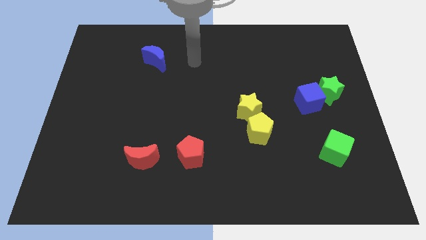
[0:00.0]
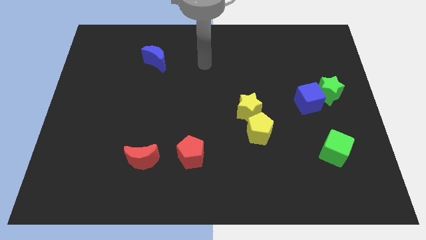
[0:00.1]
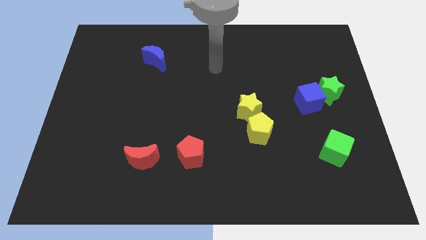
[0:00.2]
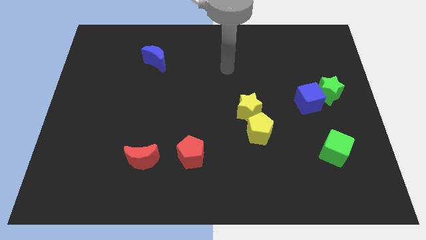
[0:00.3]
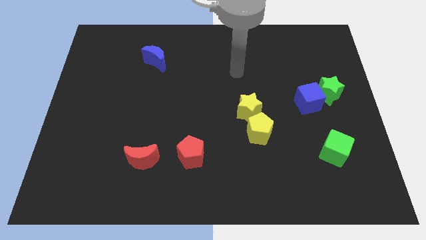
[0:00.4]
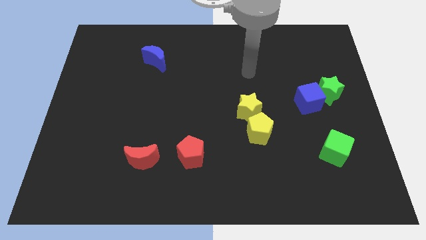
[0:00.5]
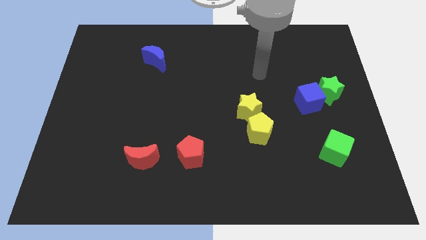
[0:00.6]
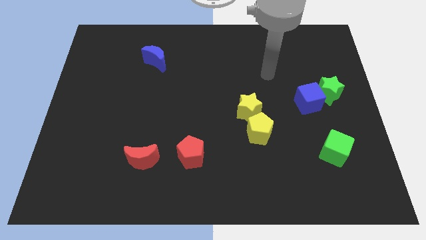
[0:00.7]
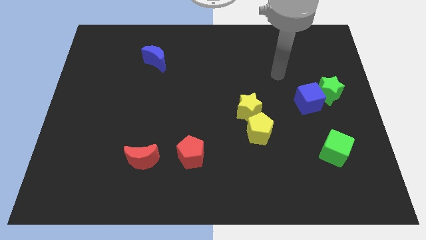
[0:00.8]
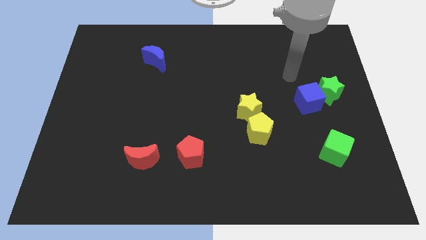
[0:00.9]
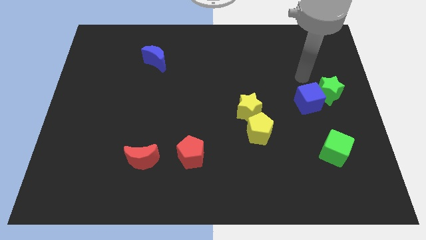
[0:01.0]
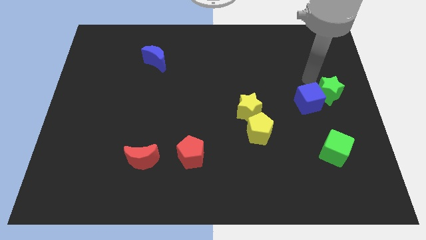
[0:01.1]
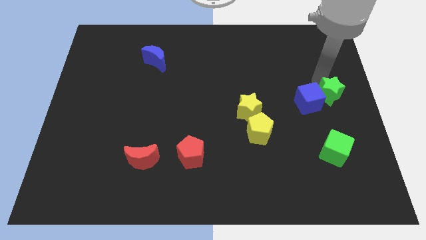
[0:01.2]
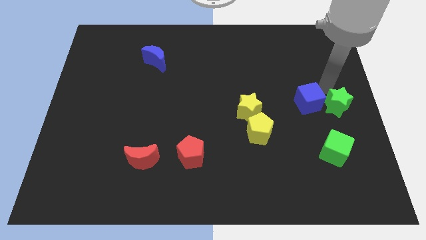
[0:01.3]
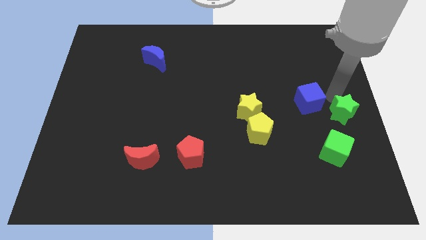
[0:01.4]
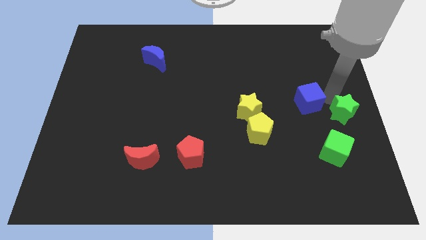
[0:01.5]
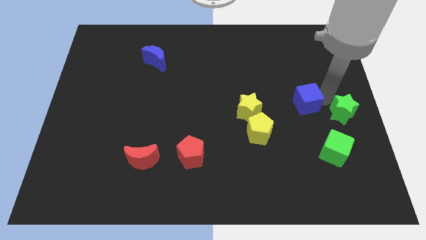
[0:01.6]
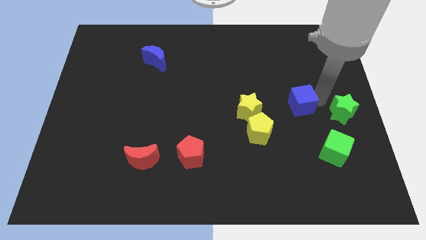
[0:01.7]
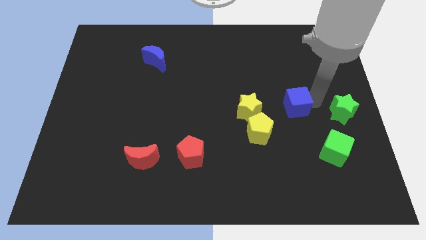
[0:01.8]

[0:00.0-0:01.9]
move the blue cube away from the green star

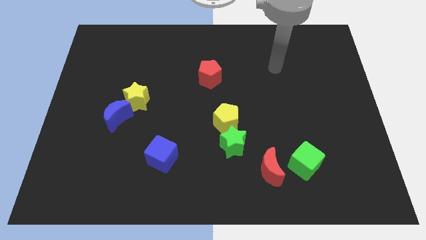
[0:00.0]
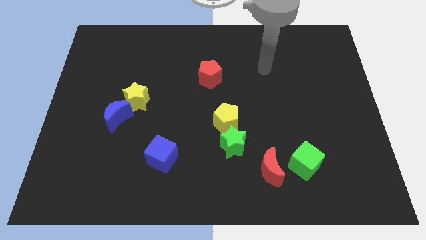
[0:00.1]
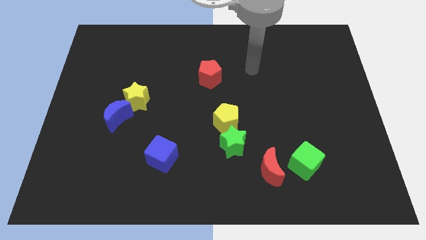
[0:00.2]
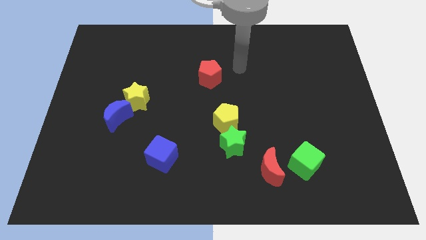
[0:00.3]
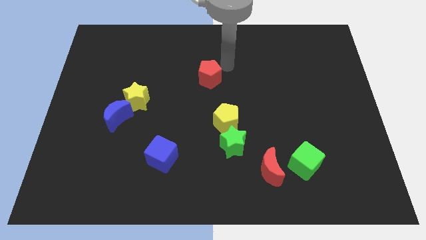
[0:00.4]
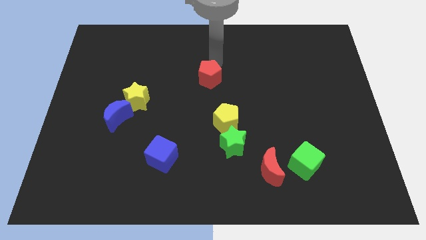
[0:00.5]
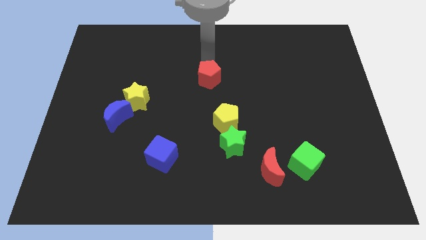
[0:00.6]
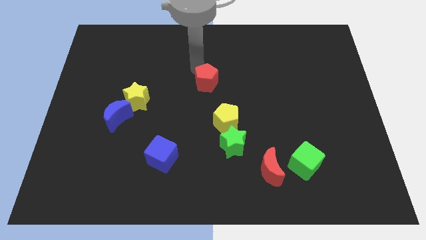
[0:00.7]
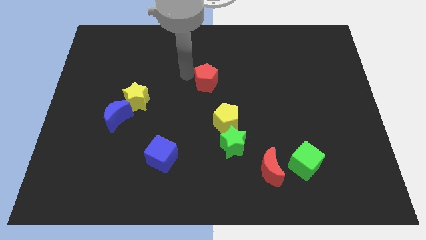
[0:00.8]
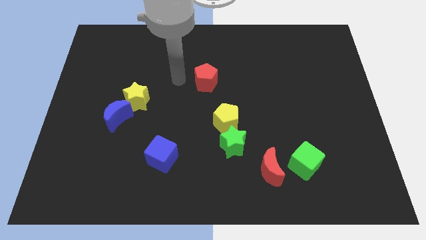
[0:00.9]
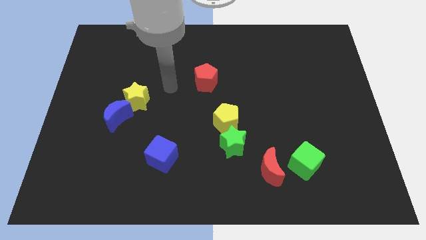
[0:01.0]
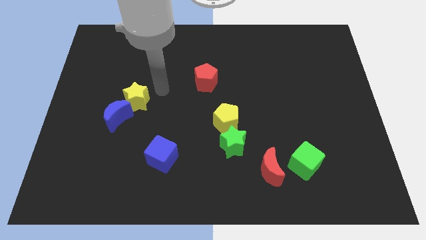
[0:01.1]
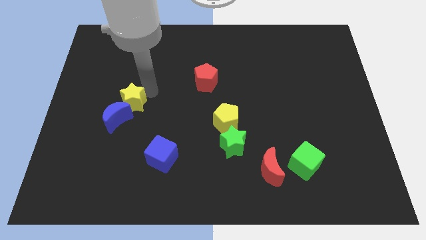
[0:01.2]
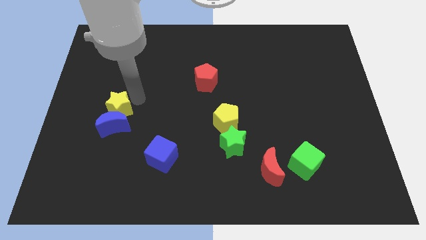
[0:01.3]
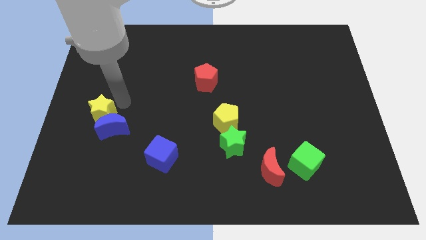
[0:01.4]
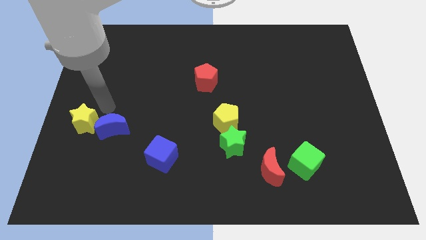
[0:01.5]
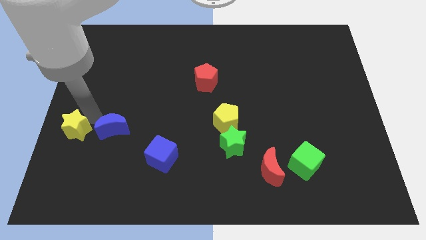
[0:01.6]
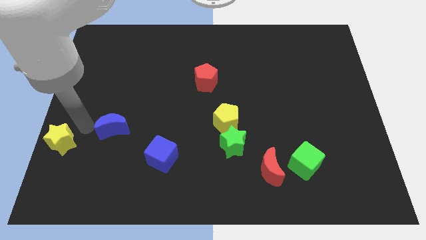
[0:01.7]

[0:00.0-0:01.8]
separate the blue moon from the yellow star

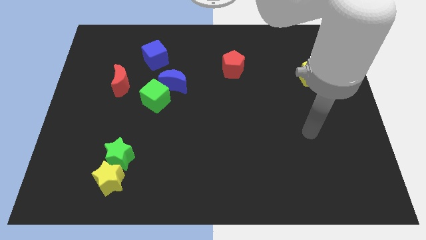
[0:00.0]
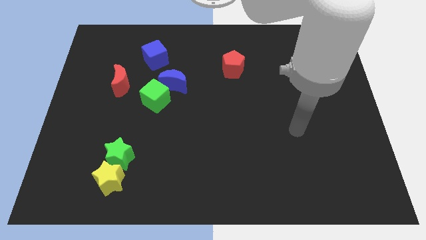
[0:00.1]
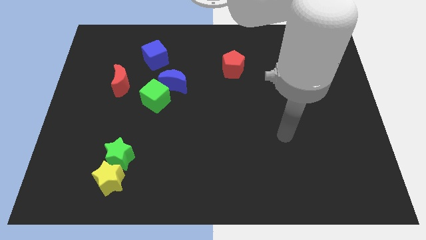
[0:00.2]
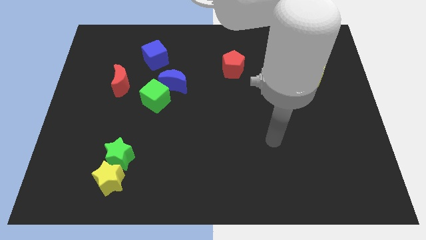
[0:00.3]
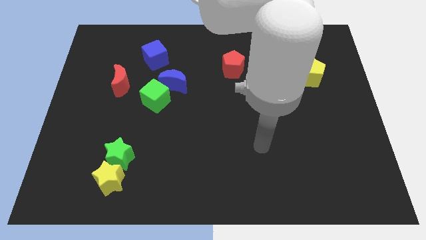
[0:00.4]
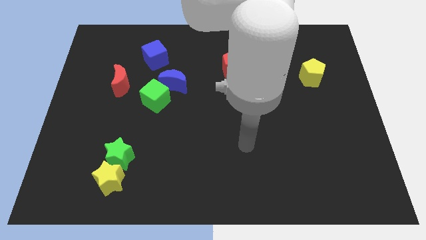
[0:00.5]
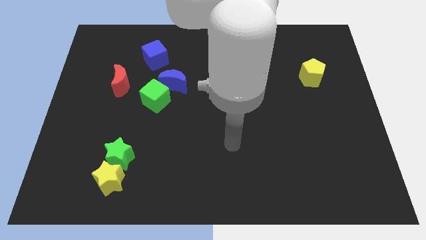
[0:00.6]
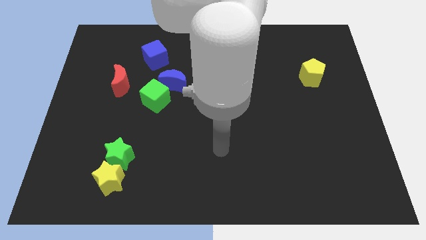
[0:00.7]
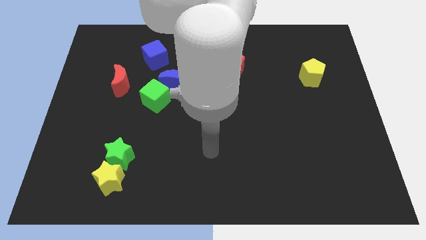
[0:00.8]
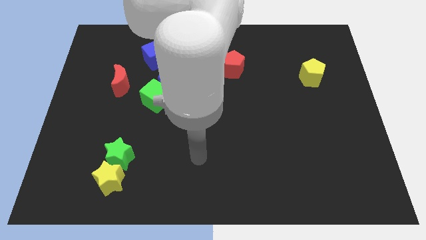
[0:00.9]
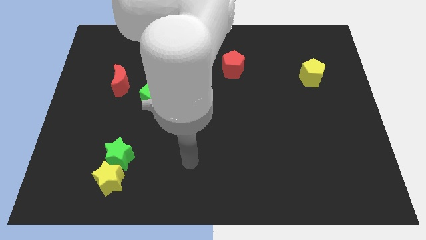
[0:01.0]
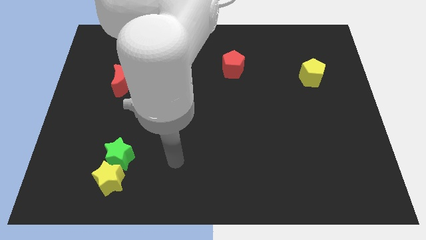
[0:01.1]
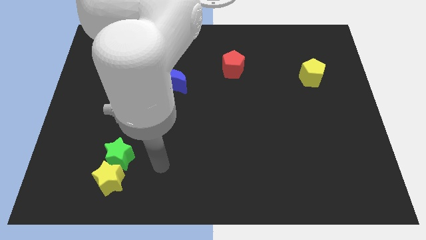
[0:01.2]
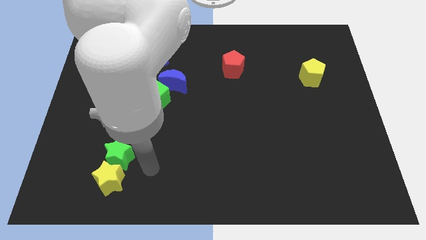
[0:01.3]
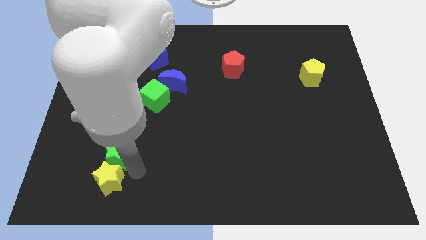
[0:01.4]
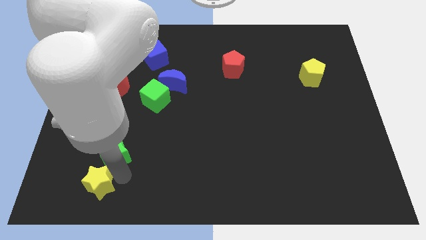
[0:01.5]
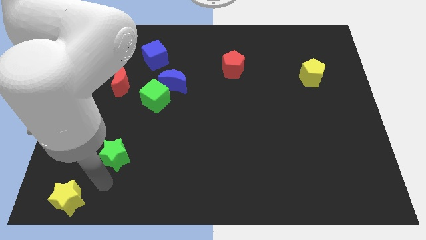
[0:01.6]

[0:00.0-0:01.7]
move the green star away from the yellow star

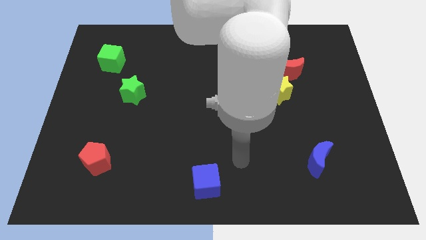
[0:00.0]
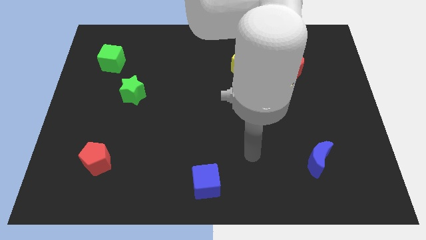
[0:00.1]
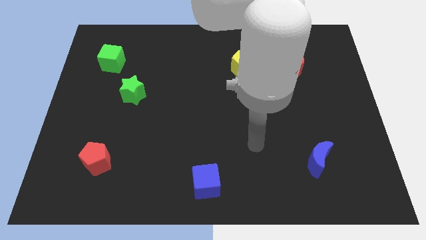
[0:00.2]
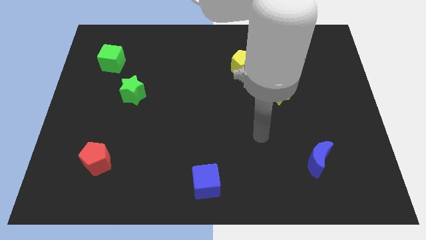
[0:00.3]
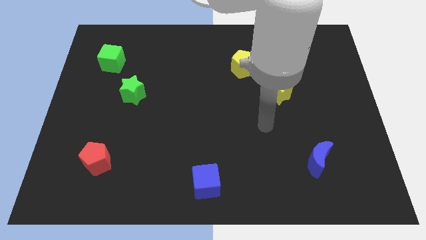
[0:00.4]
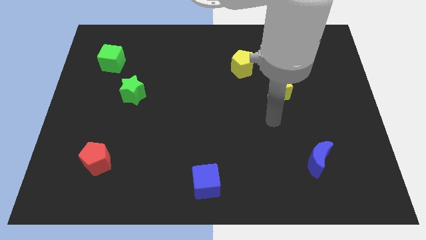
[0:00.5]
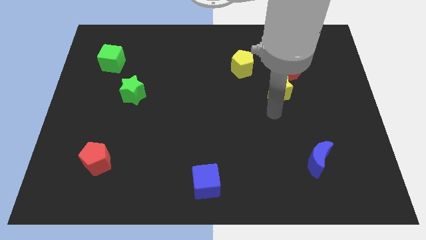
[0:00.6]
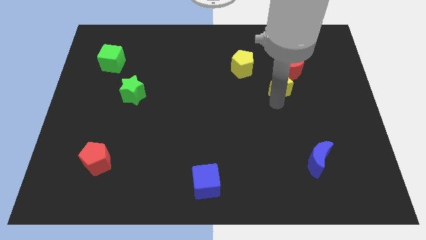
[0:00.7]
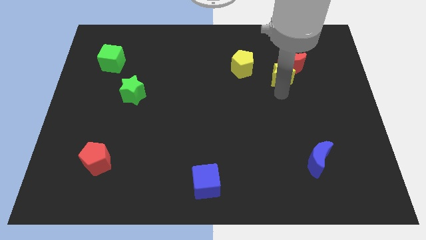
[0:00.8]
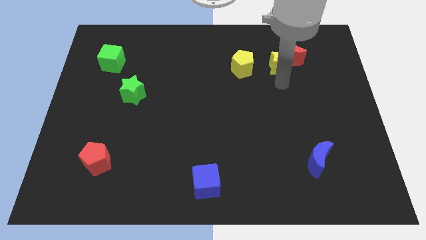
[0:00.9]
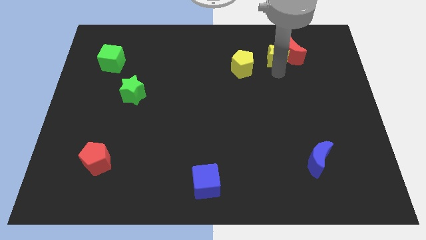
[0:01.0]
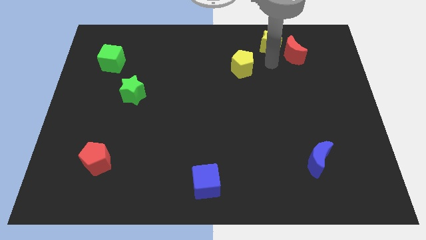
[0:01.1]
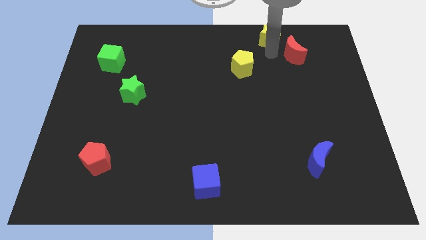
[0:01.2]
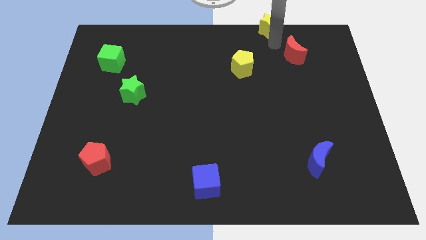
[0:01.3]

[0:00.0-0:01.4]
move the red moon away from the yellow star

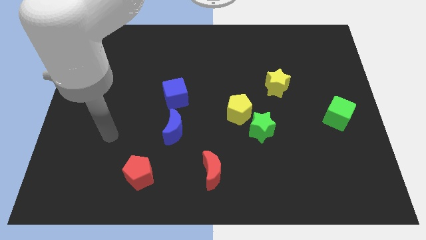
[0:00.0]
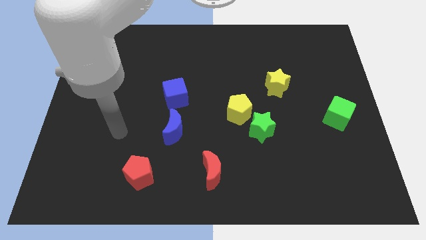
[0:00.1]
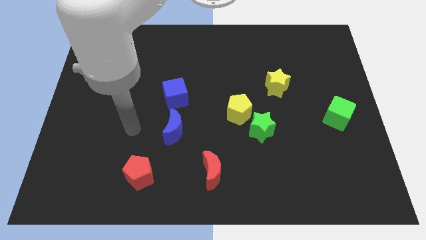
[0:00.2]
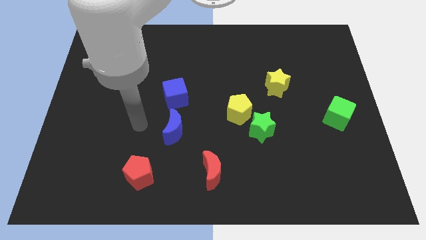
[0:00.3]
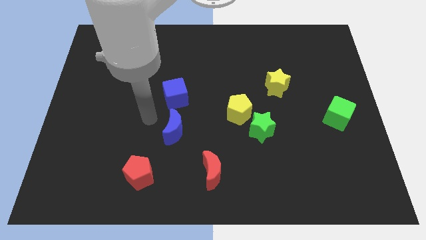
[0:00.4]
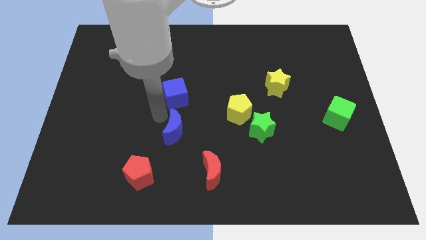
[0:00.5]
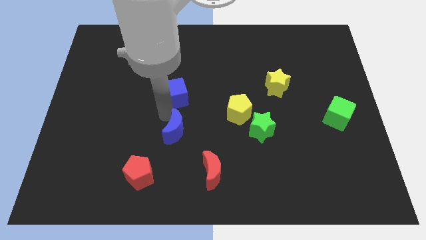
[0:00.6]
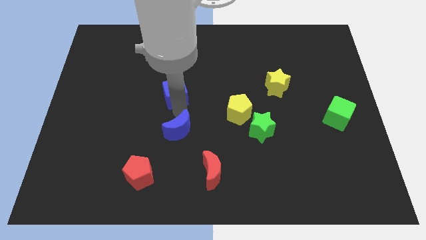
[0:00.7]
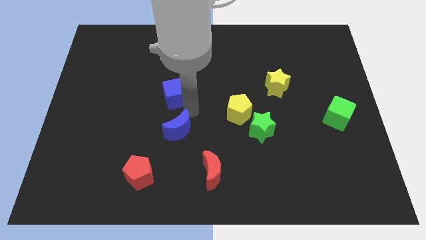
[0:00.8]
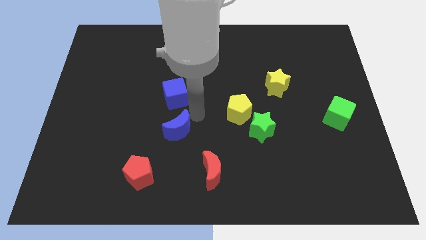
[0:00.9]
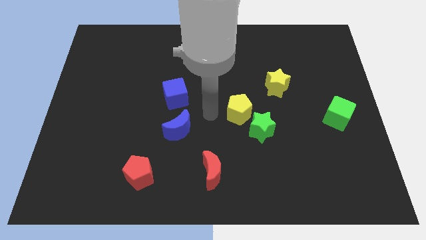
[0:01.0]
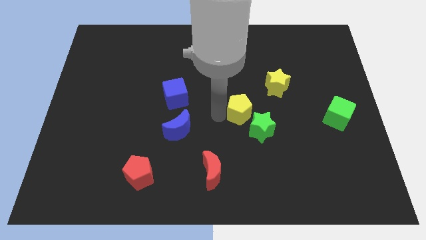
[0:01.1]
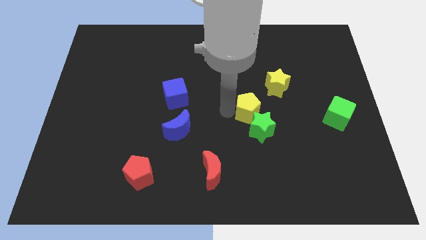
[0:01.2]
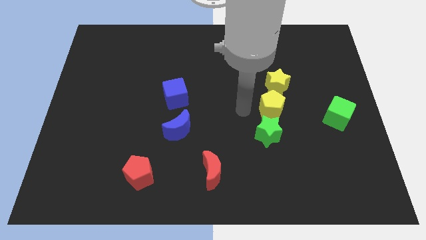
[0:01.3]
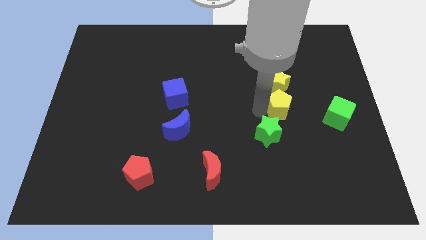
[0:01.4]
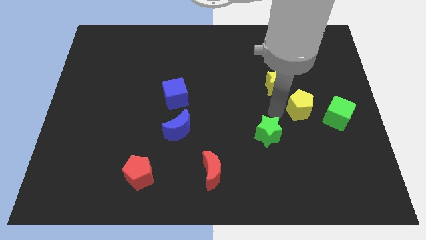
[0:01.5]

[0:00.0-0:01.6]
separate the green star from the yellow pentagon

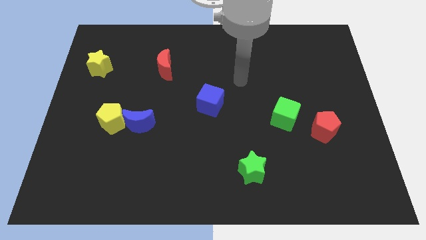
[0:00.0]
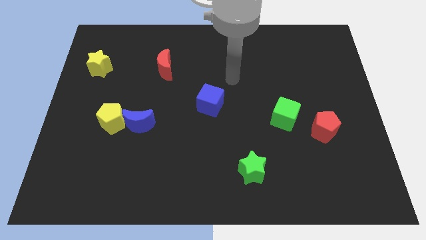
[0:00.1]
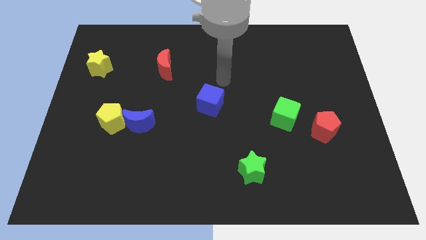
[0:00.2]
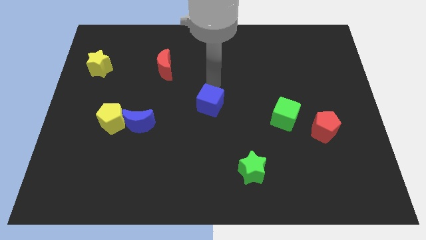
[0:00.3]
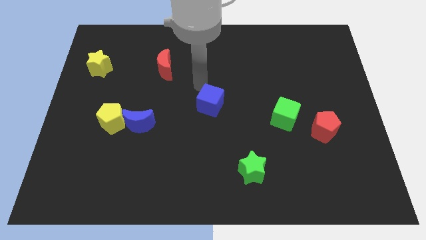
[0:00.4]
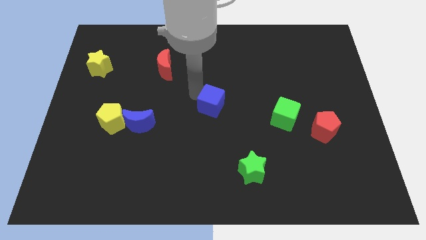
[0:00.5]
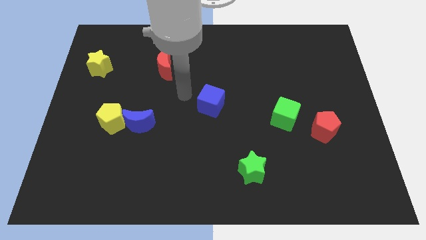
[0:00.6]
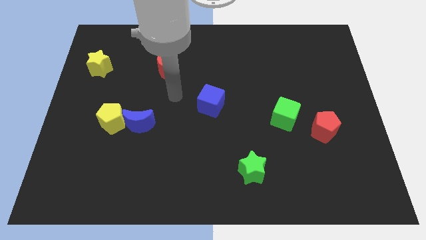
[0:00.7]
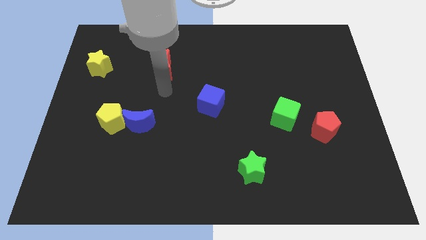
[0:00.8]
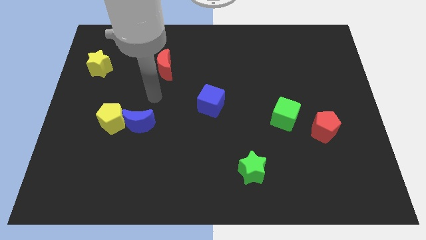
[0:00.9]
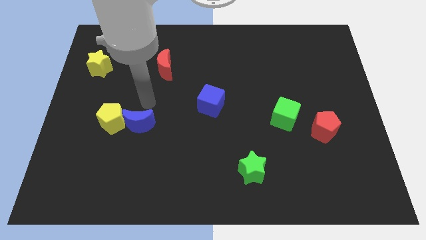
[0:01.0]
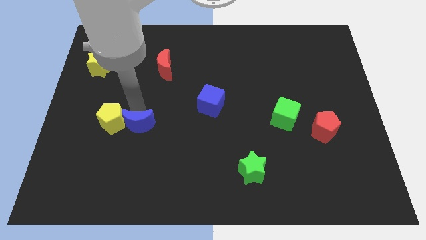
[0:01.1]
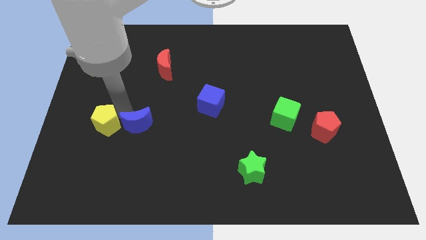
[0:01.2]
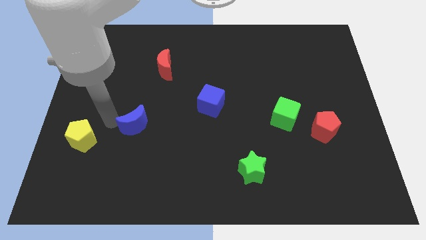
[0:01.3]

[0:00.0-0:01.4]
move the blue moon away from the yellow pentagon
